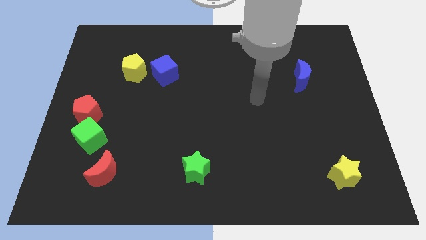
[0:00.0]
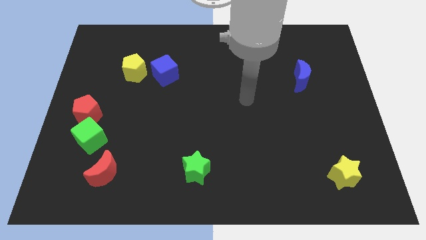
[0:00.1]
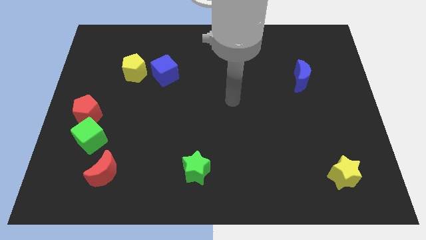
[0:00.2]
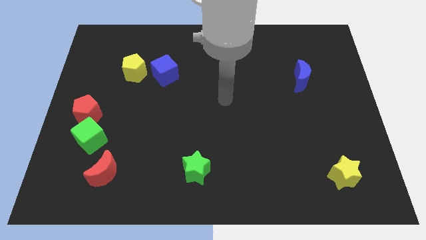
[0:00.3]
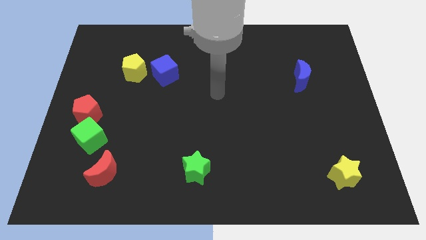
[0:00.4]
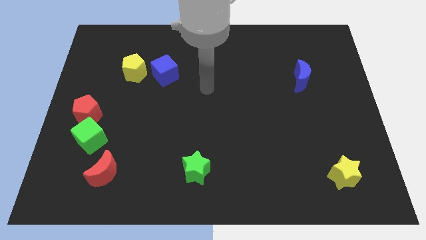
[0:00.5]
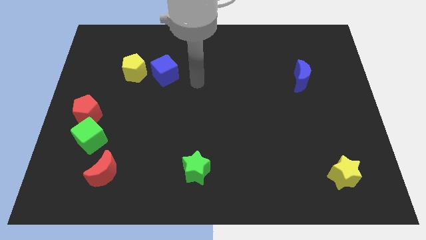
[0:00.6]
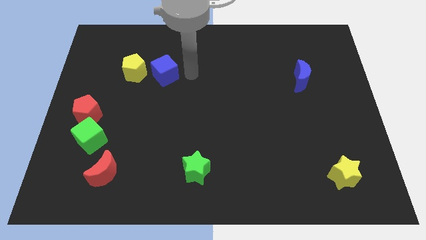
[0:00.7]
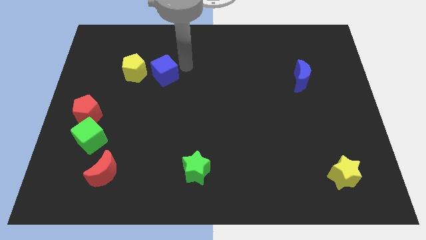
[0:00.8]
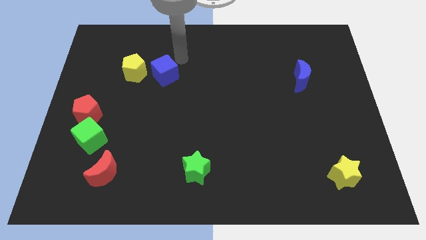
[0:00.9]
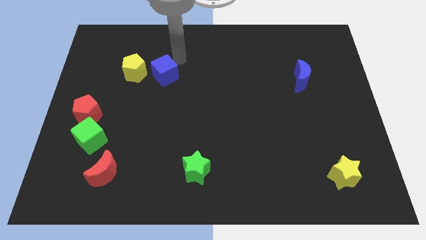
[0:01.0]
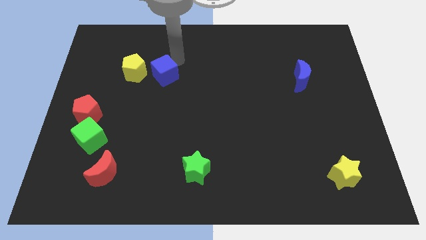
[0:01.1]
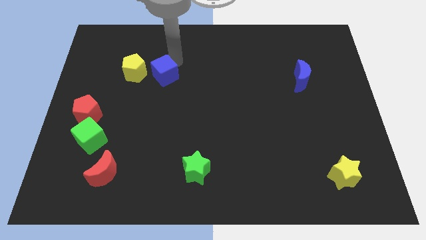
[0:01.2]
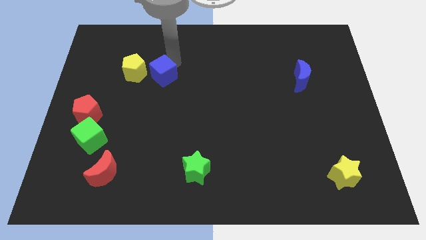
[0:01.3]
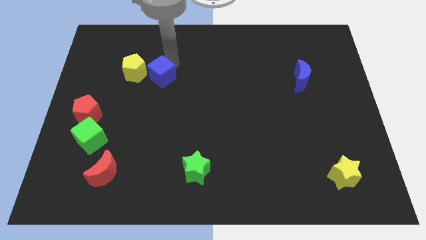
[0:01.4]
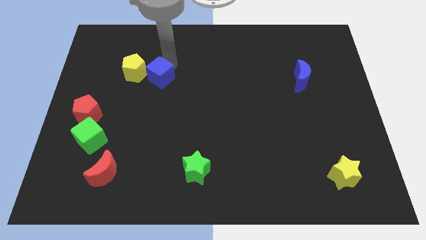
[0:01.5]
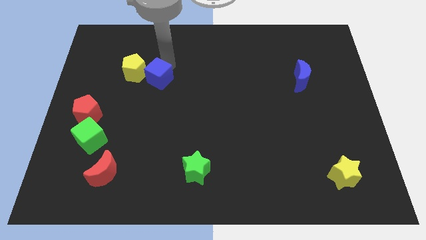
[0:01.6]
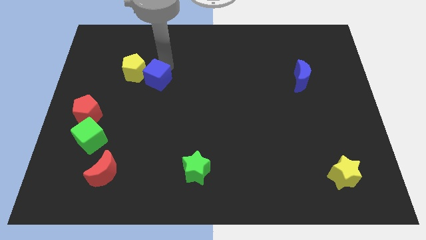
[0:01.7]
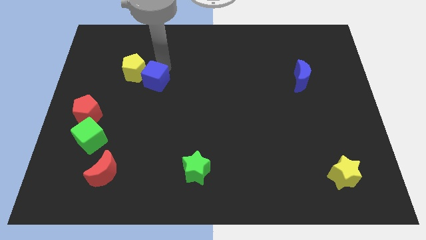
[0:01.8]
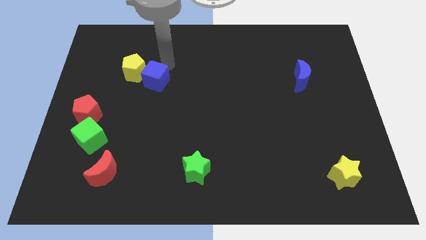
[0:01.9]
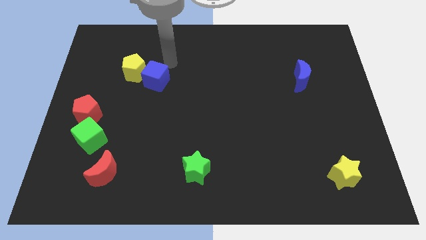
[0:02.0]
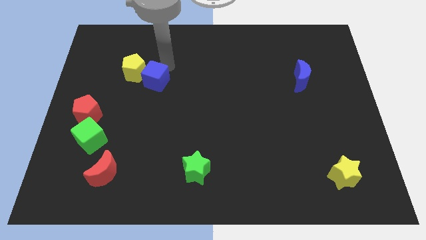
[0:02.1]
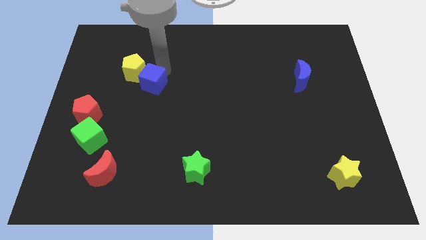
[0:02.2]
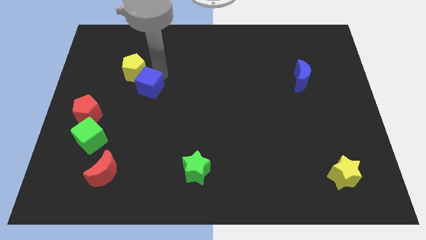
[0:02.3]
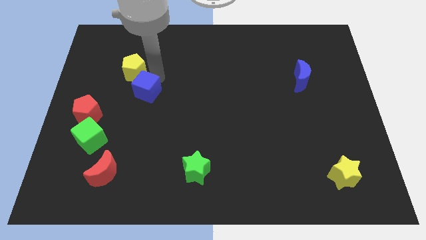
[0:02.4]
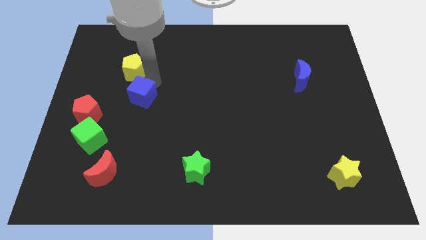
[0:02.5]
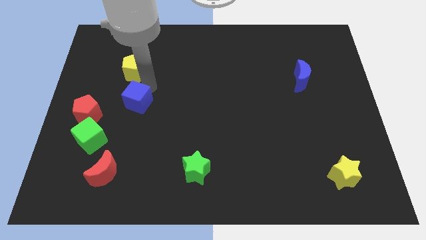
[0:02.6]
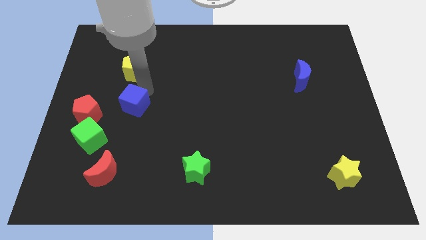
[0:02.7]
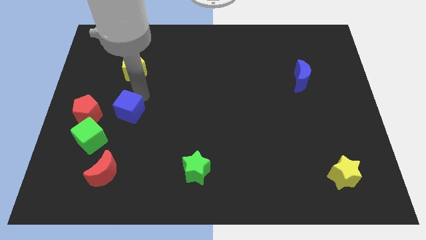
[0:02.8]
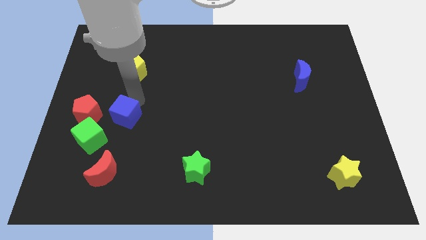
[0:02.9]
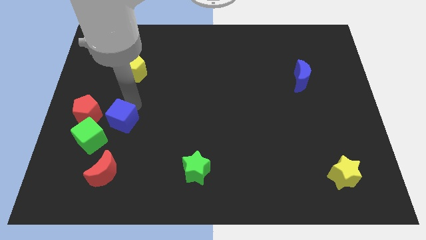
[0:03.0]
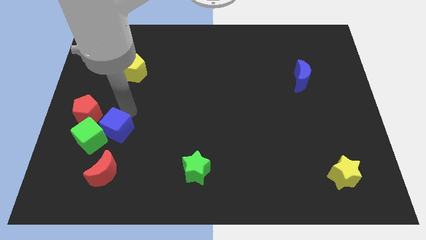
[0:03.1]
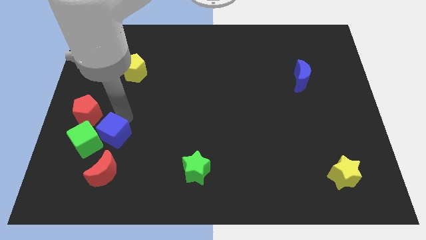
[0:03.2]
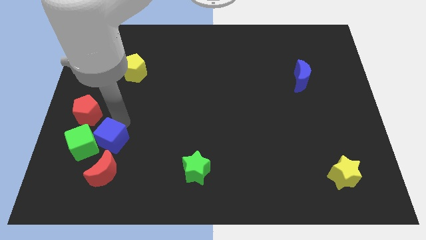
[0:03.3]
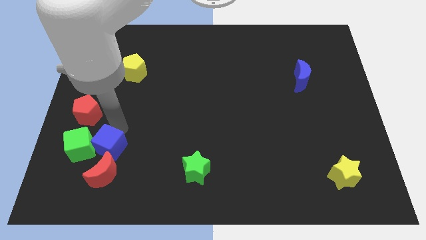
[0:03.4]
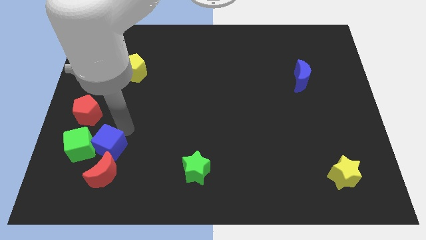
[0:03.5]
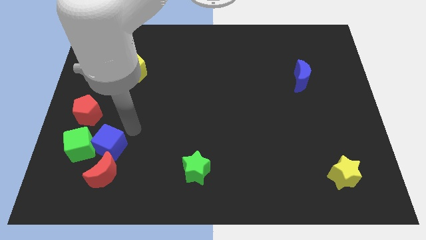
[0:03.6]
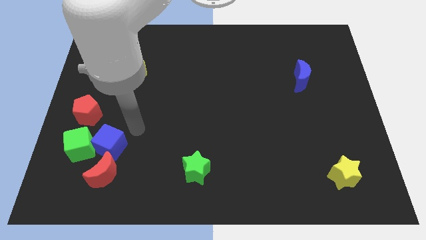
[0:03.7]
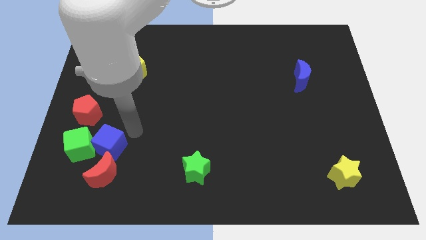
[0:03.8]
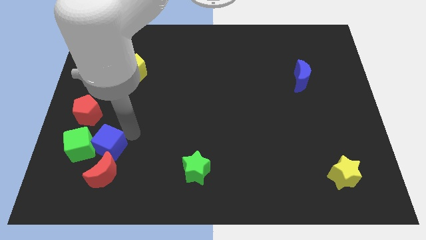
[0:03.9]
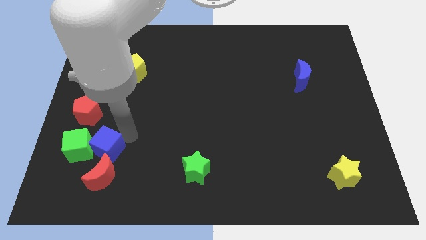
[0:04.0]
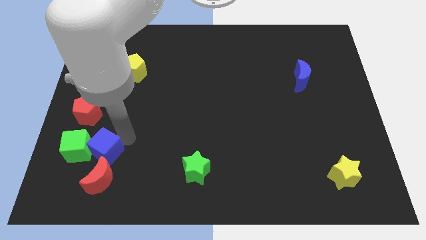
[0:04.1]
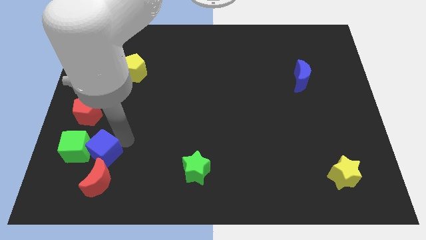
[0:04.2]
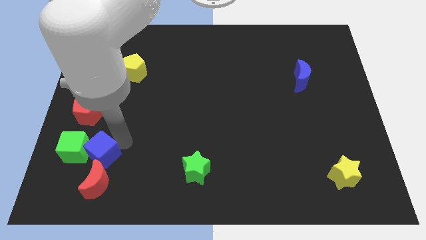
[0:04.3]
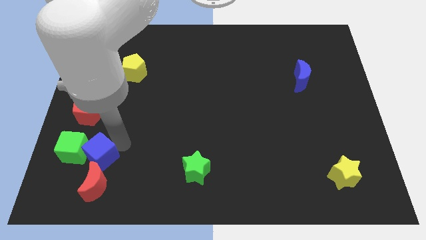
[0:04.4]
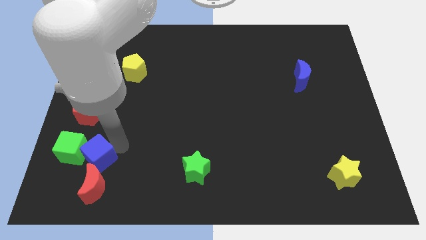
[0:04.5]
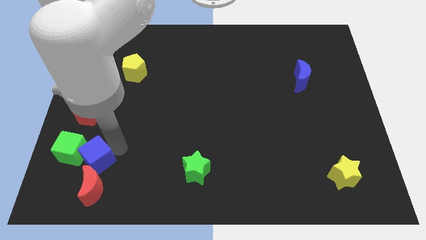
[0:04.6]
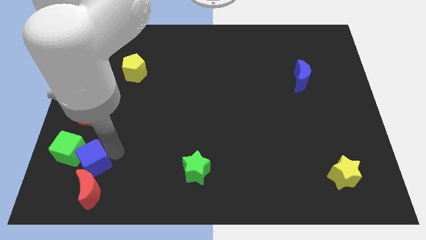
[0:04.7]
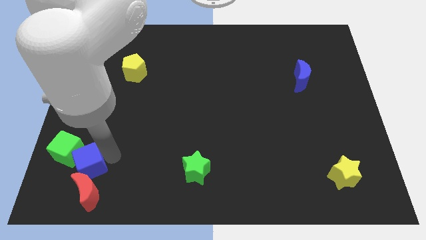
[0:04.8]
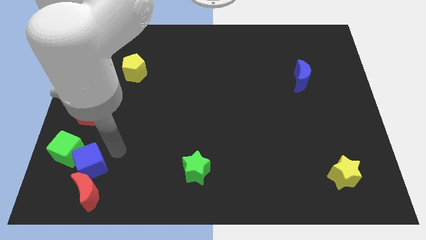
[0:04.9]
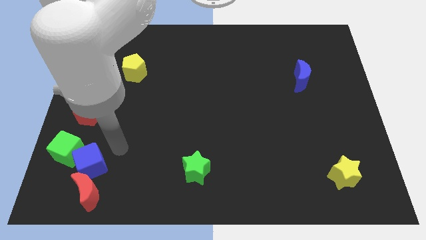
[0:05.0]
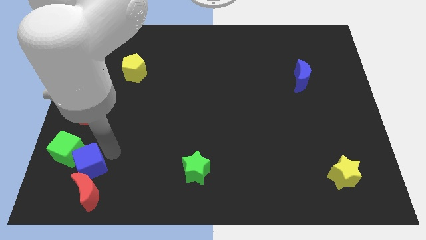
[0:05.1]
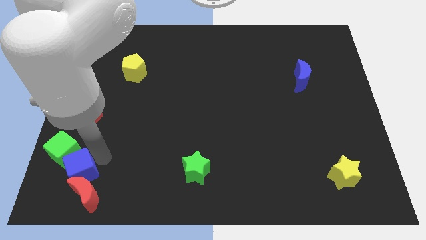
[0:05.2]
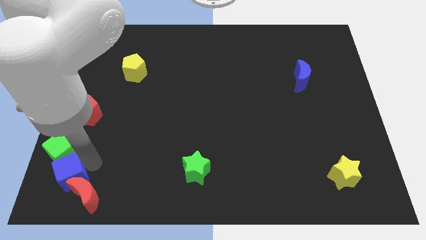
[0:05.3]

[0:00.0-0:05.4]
push the blue cube to the bottom left of the board

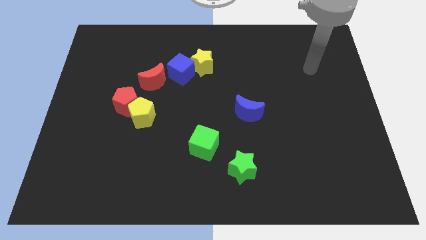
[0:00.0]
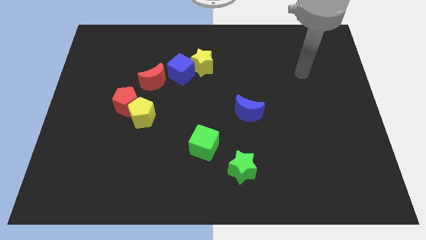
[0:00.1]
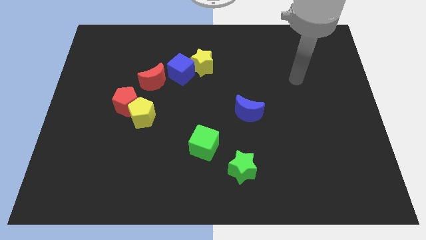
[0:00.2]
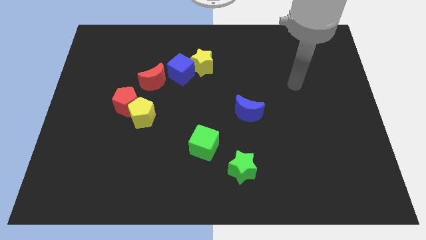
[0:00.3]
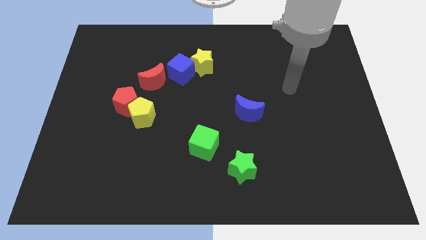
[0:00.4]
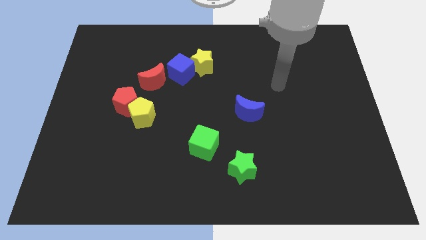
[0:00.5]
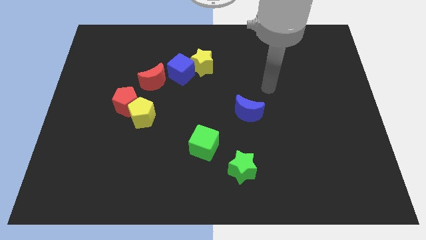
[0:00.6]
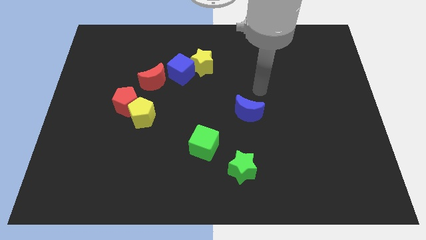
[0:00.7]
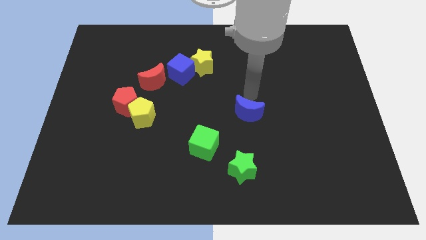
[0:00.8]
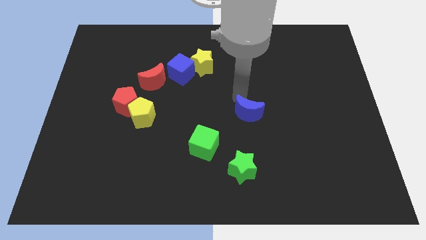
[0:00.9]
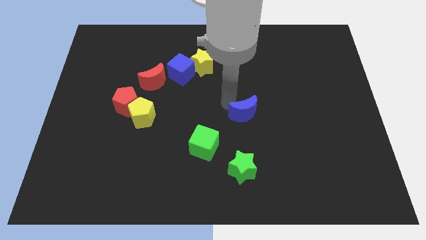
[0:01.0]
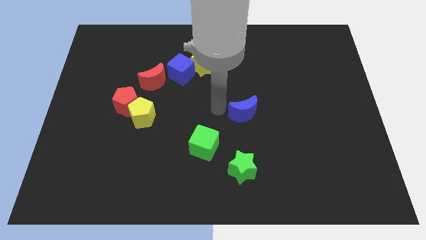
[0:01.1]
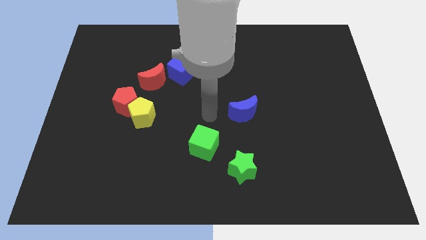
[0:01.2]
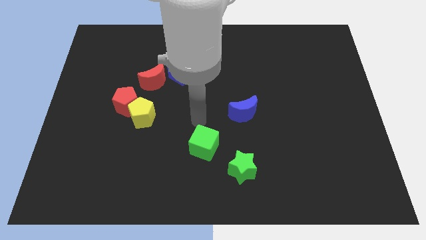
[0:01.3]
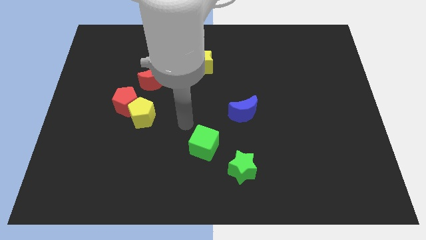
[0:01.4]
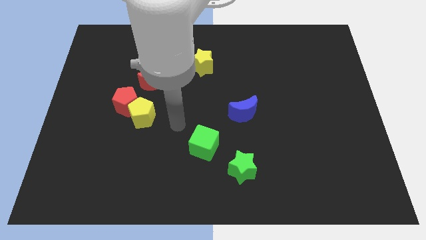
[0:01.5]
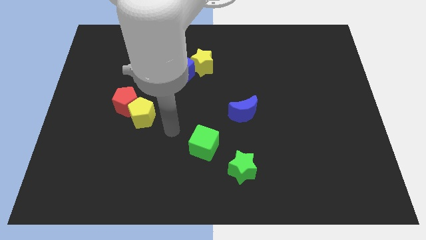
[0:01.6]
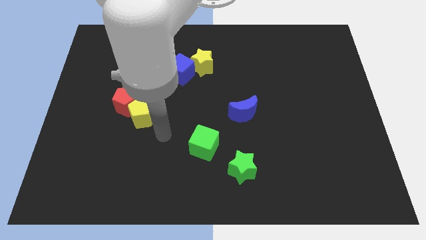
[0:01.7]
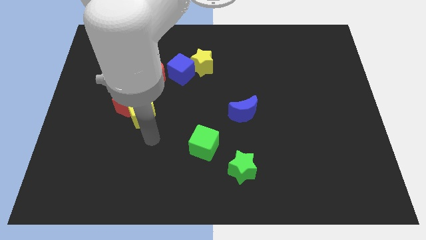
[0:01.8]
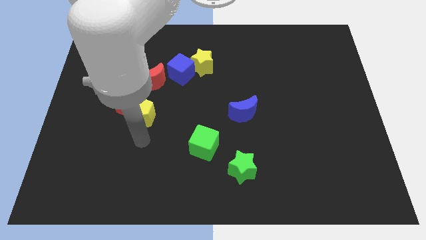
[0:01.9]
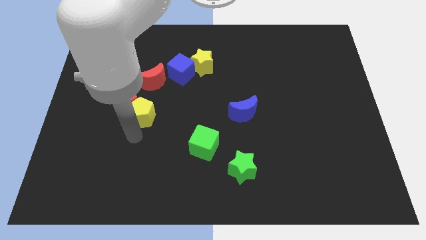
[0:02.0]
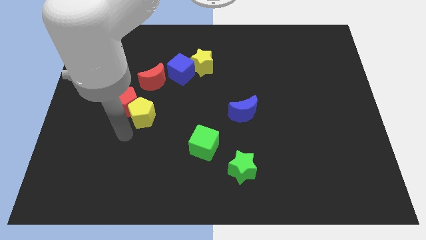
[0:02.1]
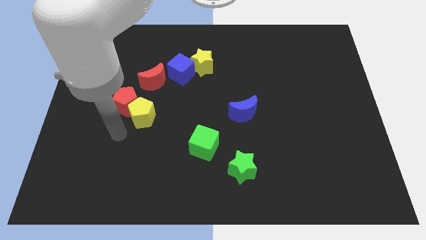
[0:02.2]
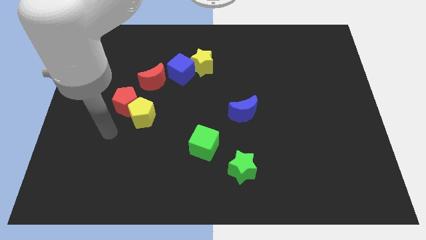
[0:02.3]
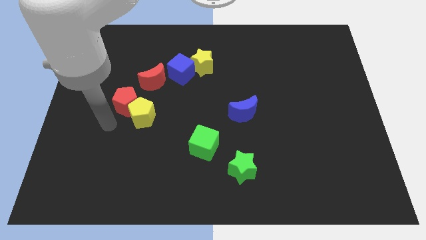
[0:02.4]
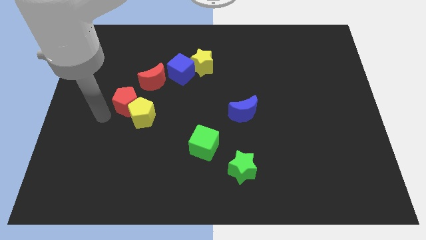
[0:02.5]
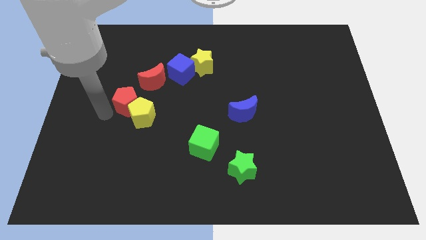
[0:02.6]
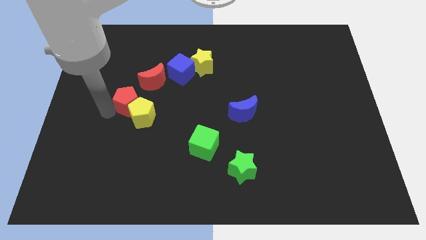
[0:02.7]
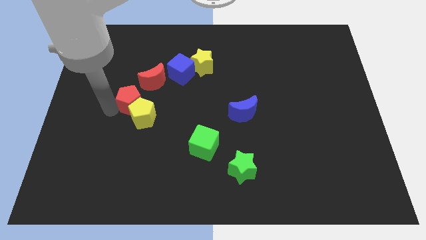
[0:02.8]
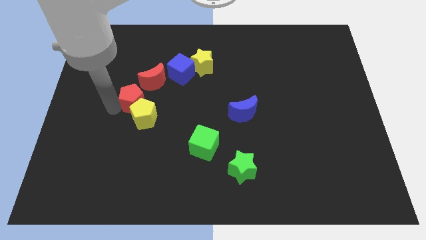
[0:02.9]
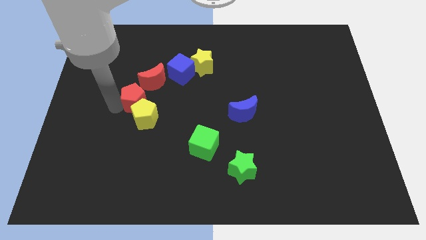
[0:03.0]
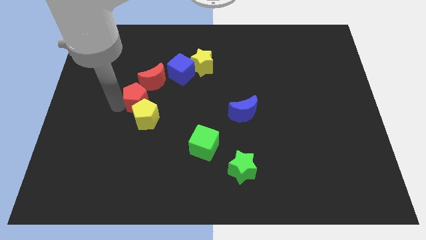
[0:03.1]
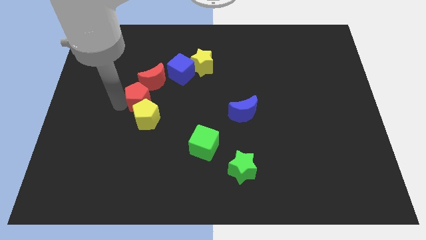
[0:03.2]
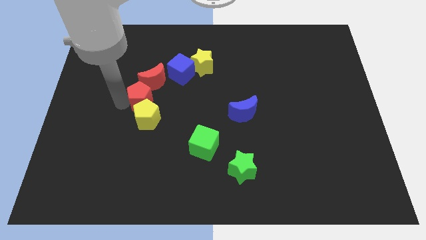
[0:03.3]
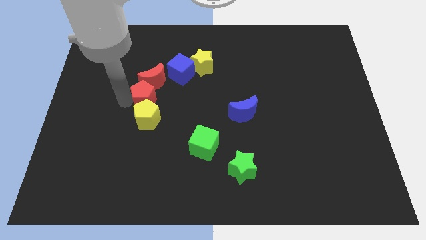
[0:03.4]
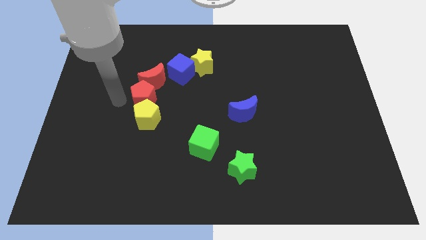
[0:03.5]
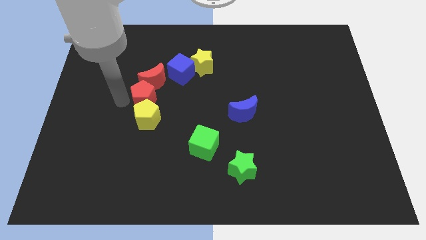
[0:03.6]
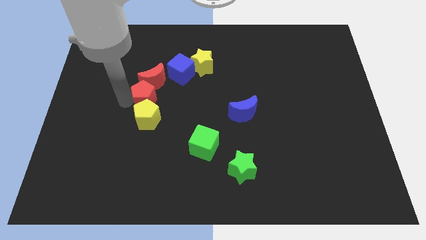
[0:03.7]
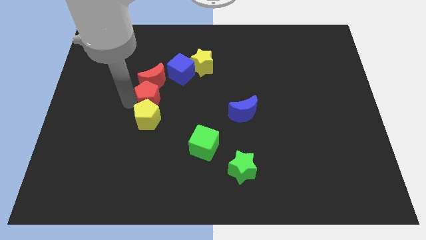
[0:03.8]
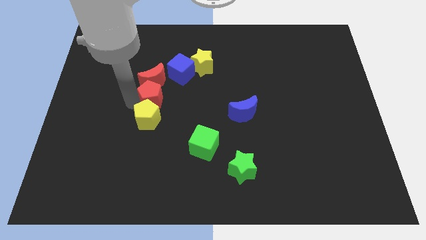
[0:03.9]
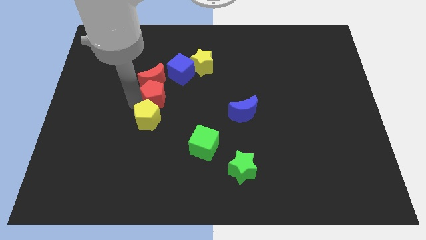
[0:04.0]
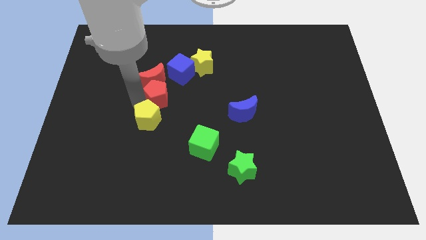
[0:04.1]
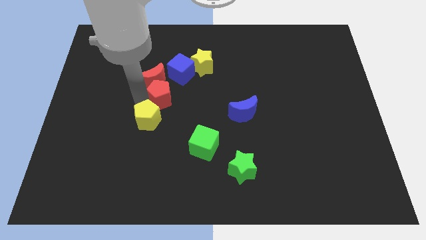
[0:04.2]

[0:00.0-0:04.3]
move the red pentagon to the middle of the board
